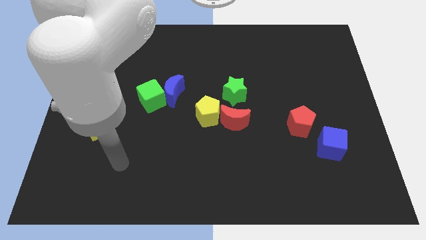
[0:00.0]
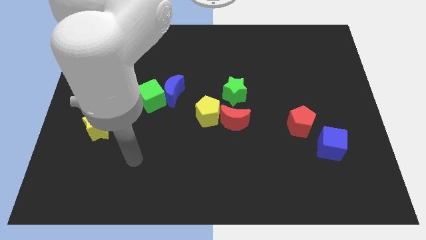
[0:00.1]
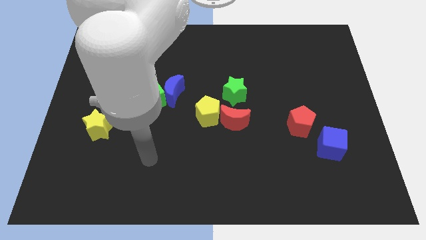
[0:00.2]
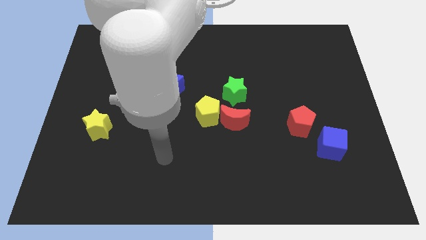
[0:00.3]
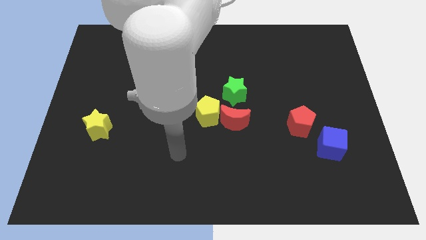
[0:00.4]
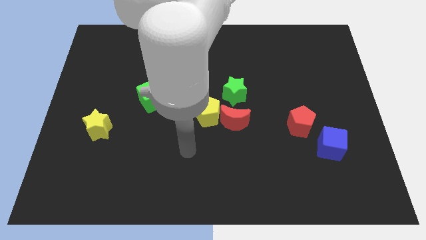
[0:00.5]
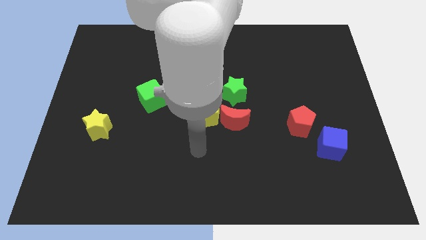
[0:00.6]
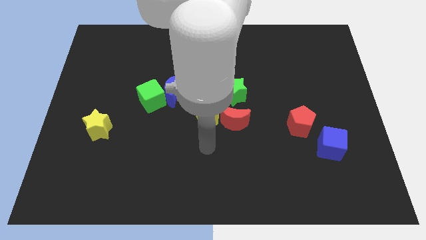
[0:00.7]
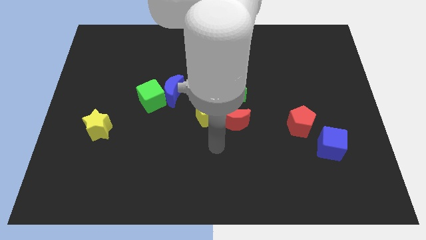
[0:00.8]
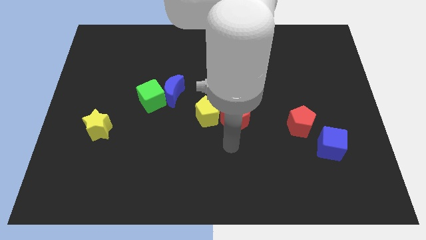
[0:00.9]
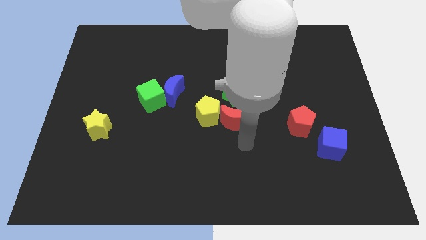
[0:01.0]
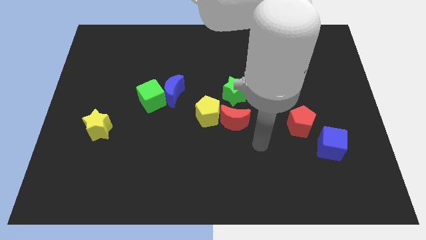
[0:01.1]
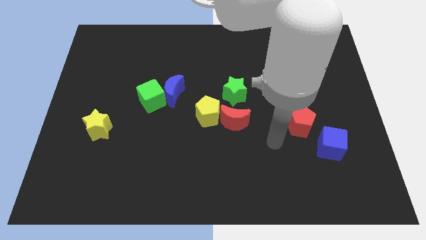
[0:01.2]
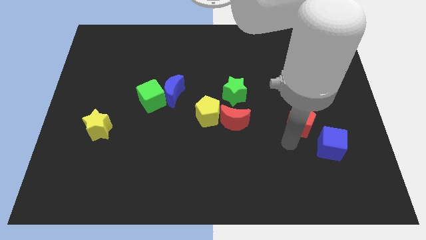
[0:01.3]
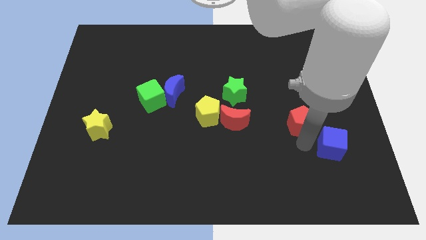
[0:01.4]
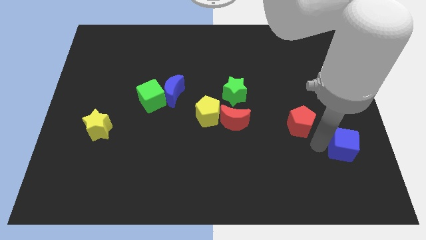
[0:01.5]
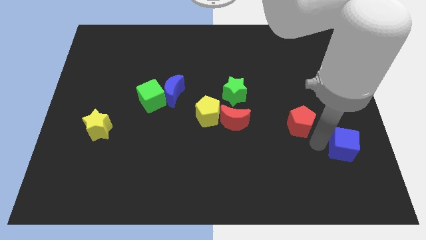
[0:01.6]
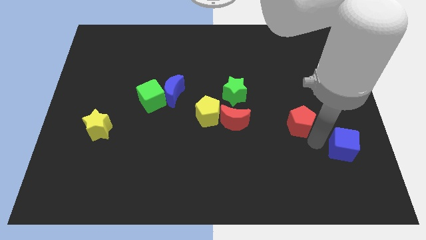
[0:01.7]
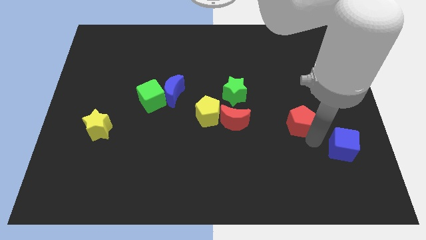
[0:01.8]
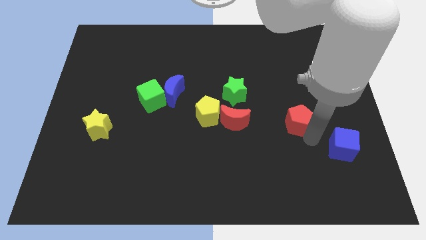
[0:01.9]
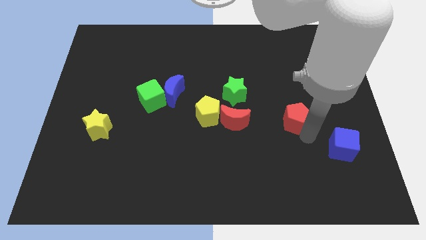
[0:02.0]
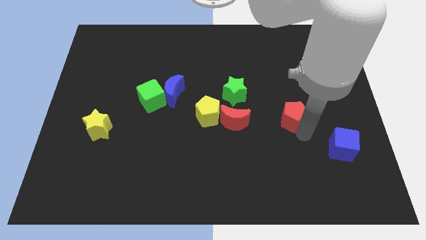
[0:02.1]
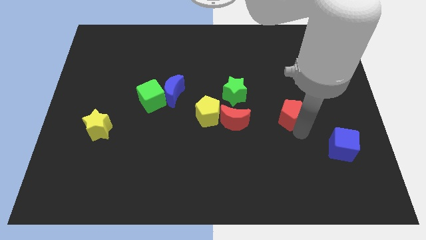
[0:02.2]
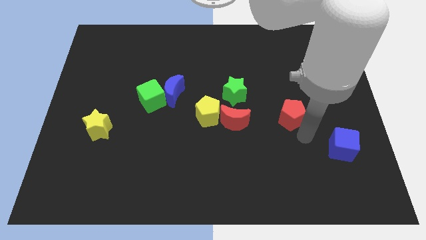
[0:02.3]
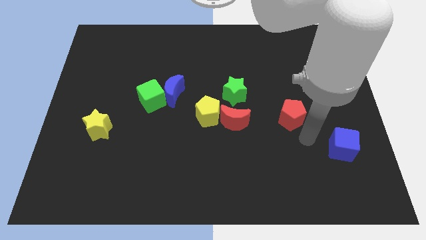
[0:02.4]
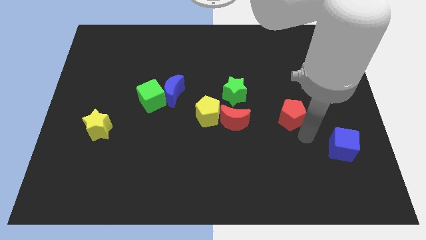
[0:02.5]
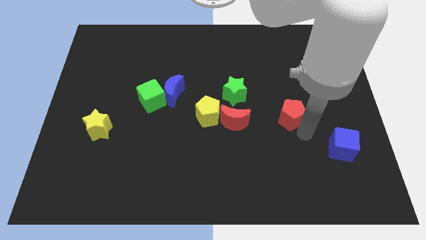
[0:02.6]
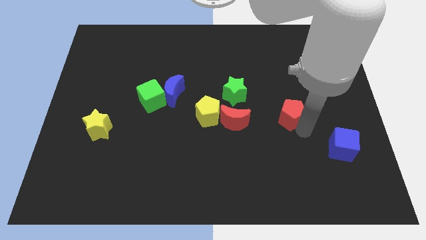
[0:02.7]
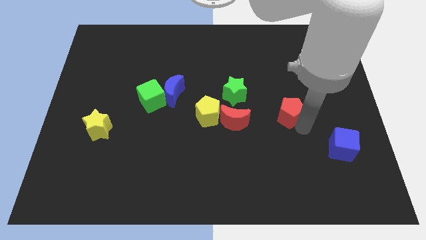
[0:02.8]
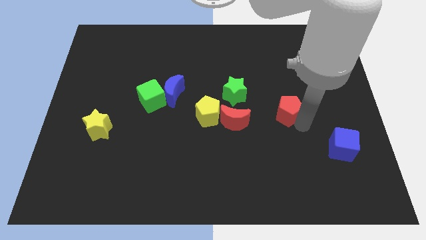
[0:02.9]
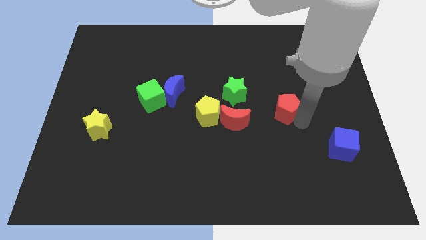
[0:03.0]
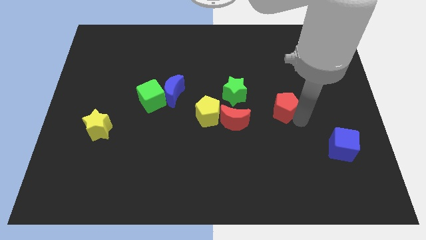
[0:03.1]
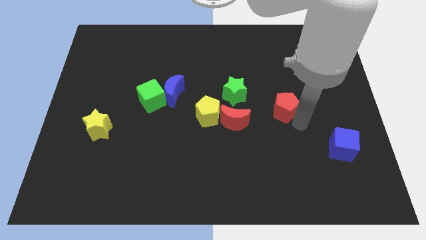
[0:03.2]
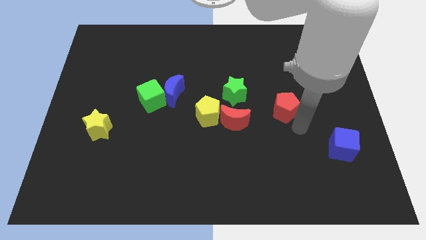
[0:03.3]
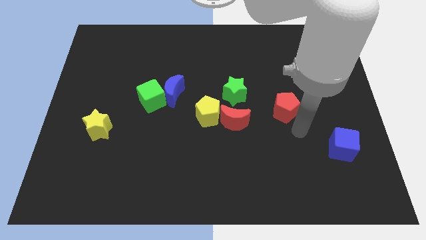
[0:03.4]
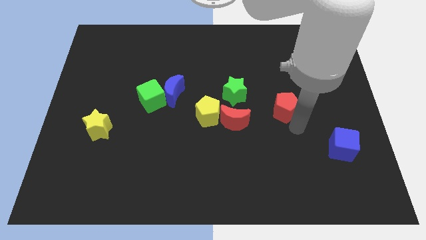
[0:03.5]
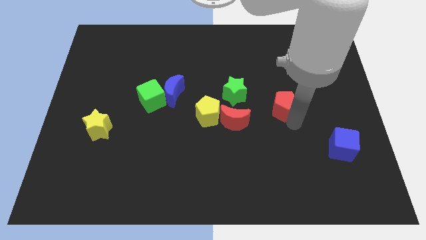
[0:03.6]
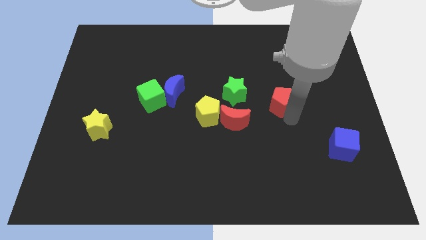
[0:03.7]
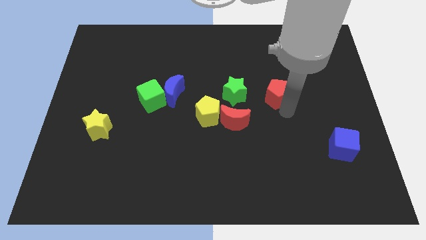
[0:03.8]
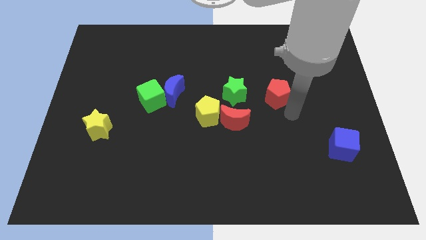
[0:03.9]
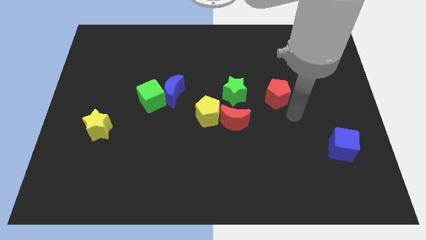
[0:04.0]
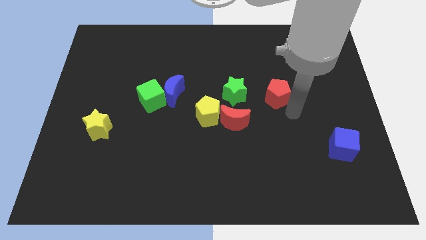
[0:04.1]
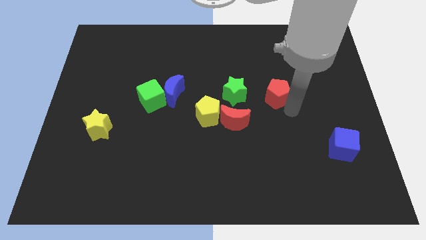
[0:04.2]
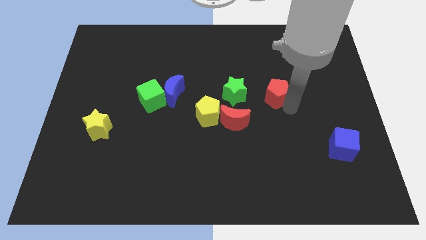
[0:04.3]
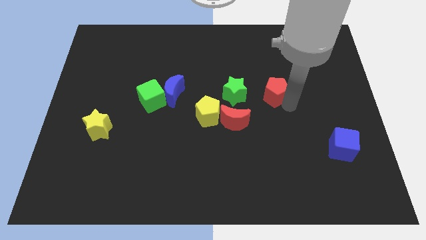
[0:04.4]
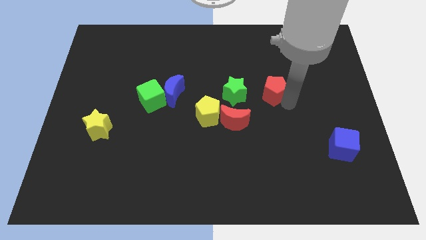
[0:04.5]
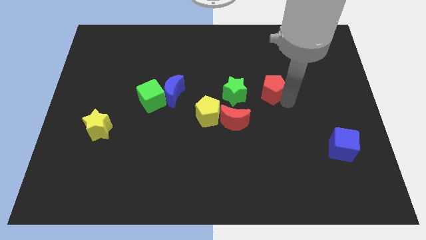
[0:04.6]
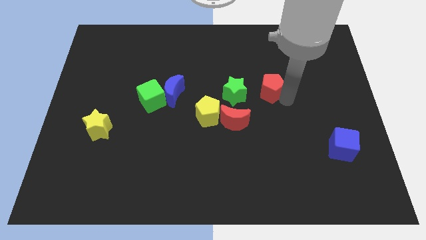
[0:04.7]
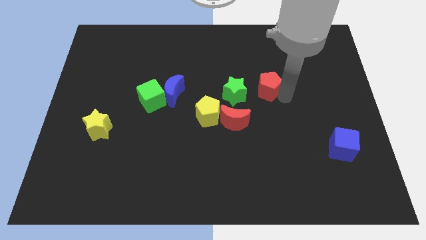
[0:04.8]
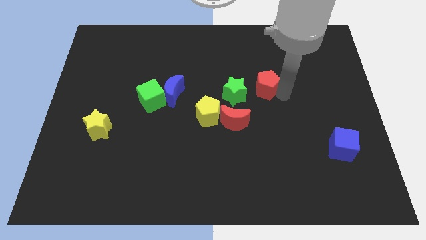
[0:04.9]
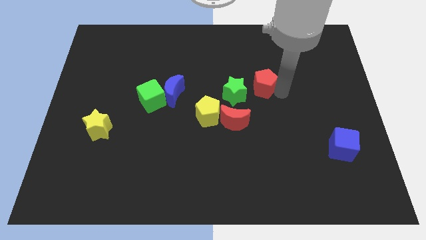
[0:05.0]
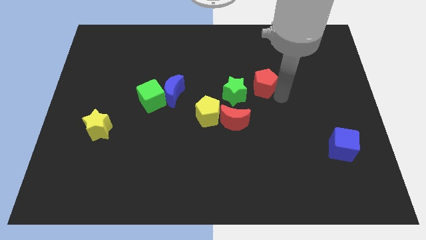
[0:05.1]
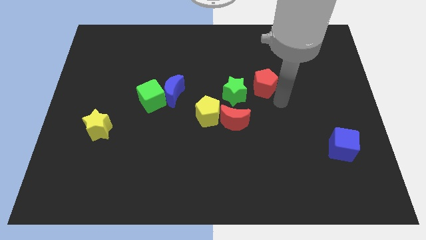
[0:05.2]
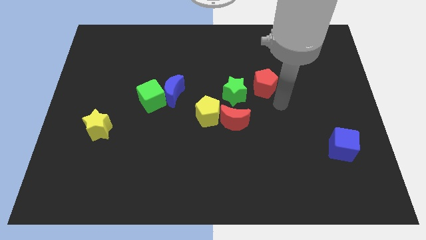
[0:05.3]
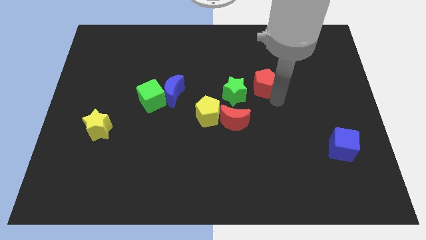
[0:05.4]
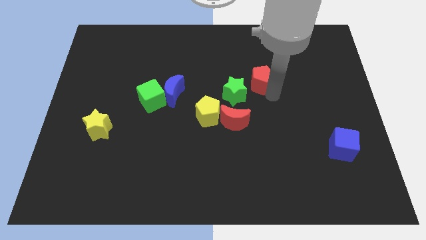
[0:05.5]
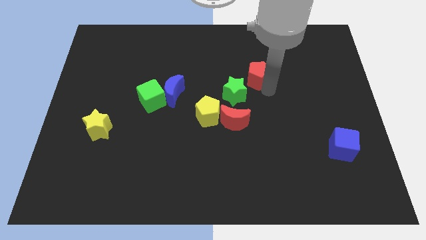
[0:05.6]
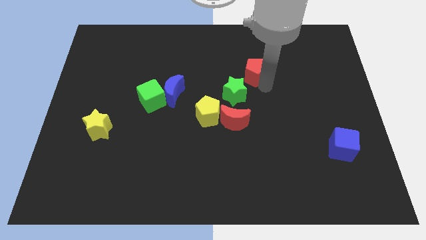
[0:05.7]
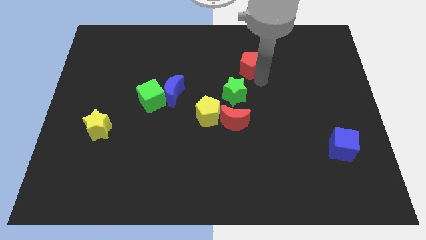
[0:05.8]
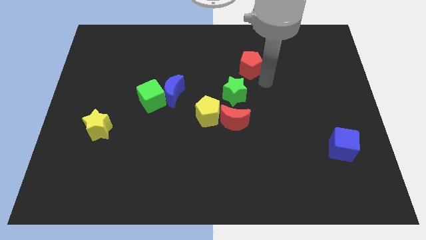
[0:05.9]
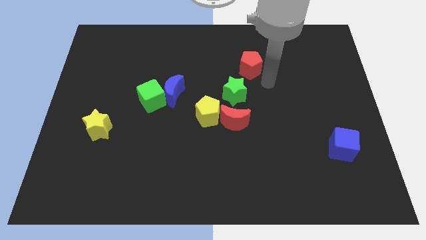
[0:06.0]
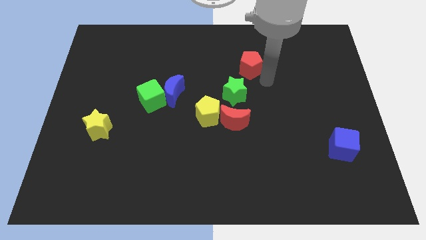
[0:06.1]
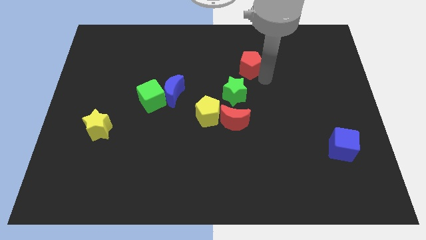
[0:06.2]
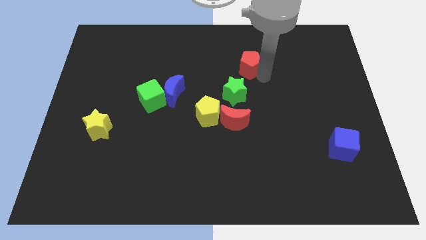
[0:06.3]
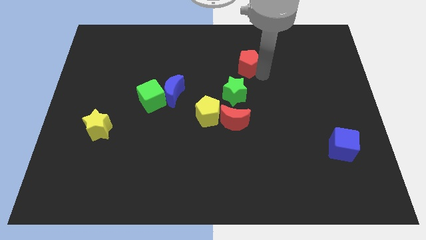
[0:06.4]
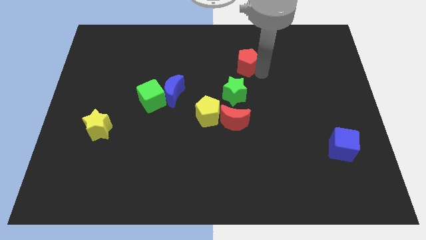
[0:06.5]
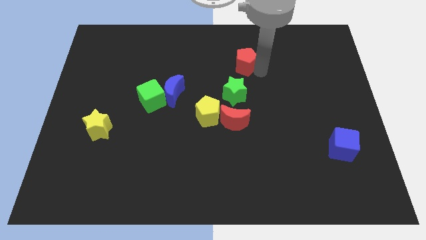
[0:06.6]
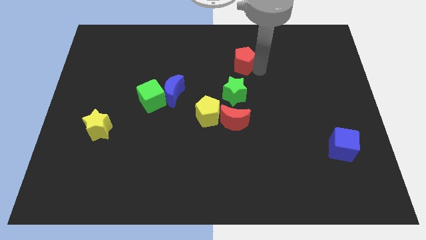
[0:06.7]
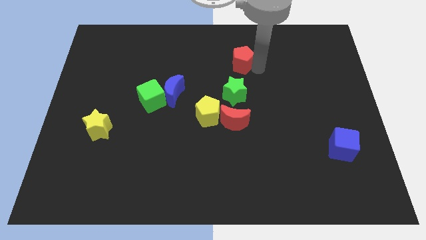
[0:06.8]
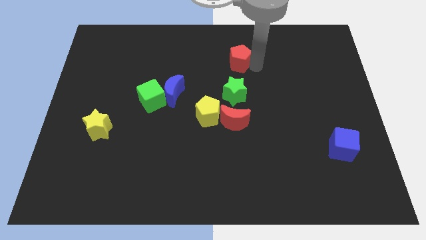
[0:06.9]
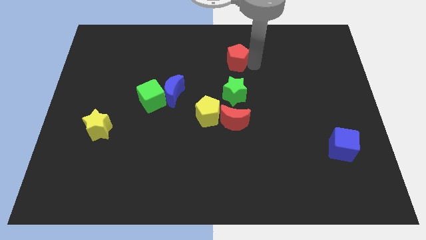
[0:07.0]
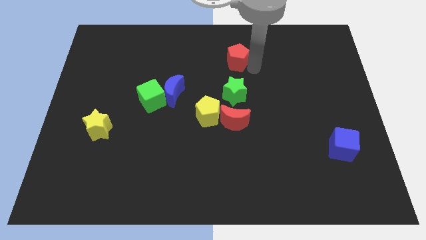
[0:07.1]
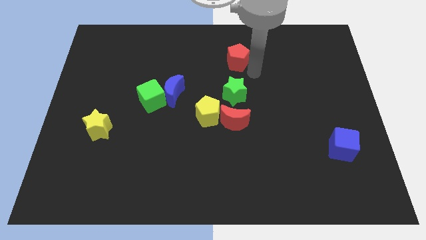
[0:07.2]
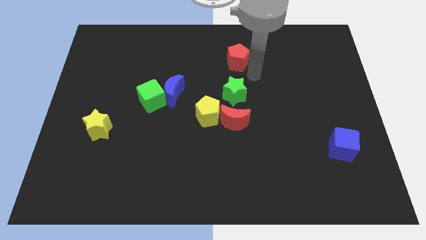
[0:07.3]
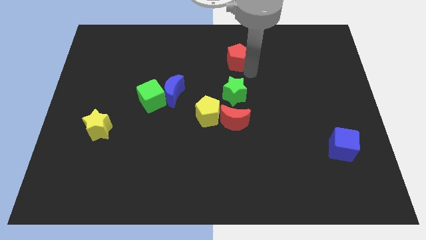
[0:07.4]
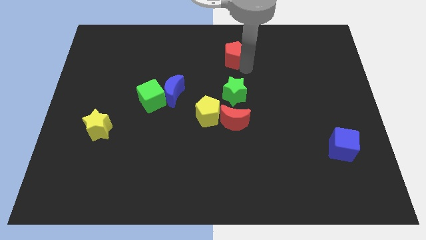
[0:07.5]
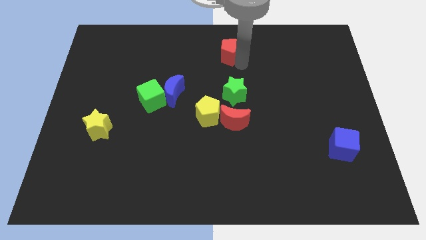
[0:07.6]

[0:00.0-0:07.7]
put the red pentagon to the top side
